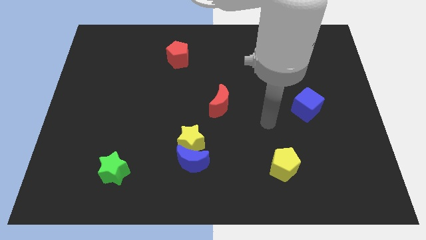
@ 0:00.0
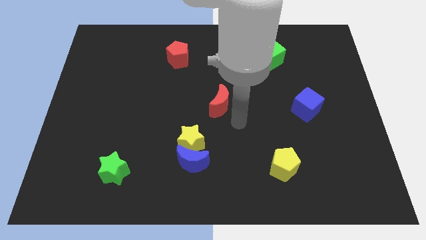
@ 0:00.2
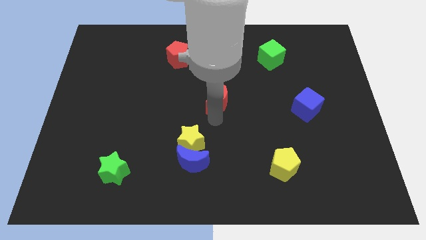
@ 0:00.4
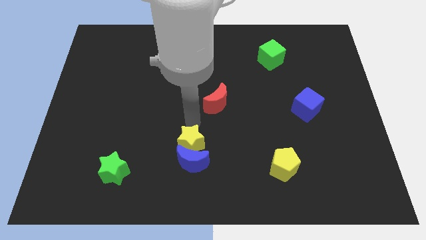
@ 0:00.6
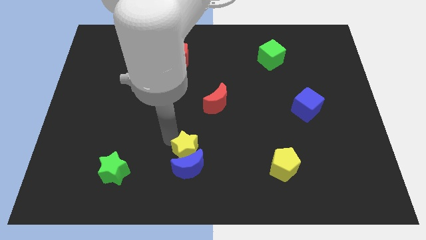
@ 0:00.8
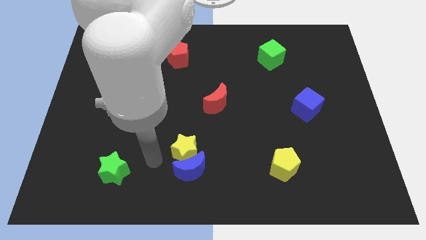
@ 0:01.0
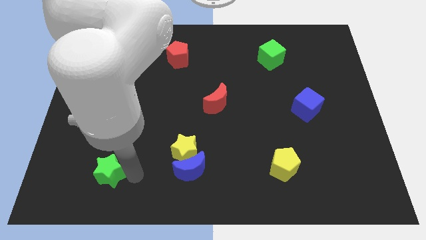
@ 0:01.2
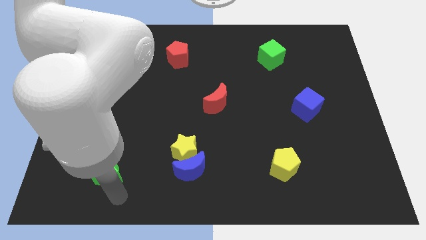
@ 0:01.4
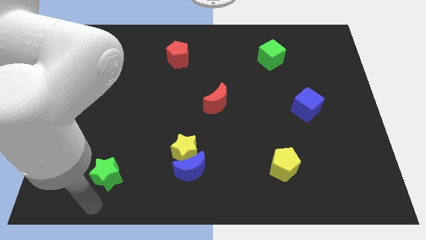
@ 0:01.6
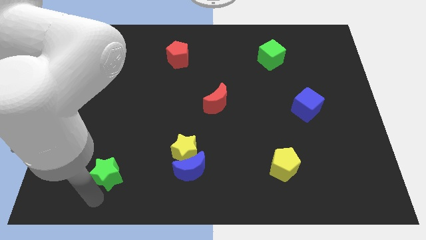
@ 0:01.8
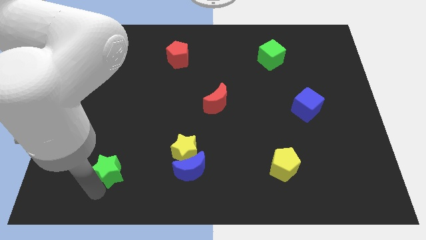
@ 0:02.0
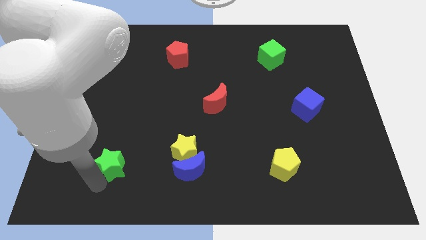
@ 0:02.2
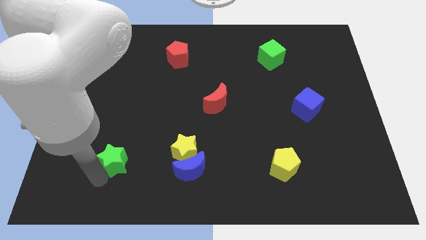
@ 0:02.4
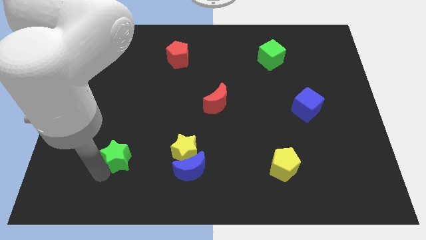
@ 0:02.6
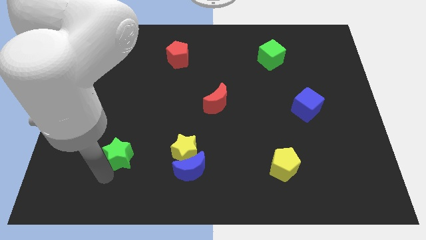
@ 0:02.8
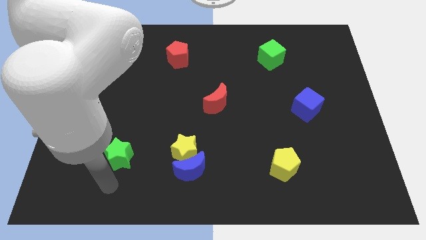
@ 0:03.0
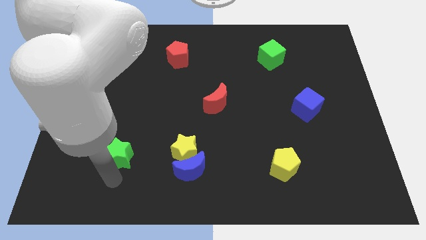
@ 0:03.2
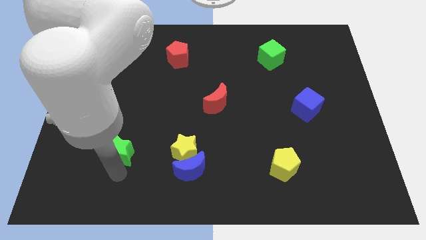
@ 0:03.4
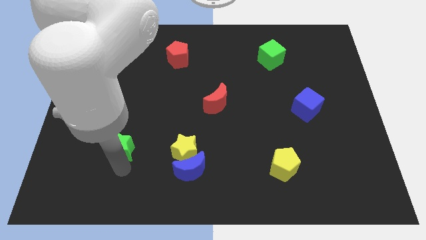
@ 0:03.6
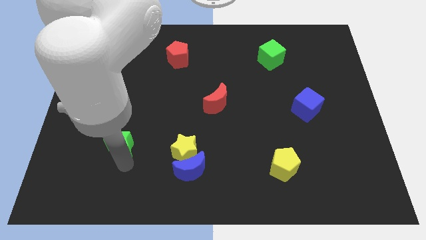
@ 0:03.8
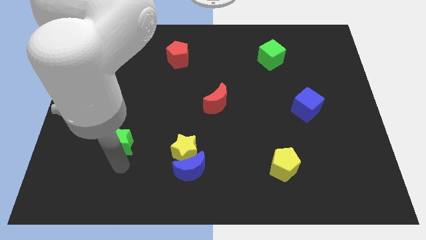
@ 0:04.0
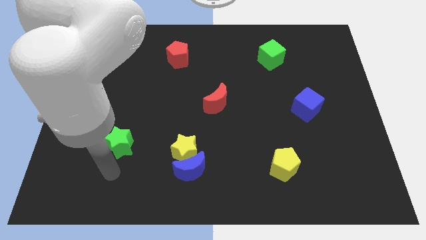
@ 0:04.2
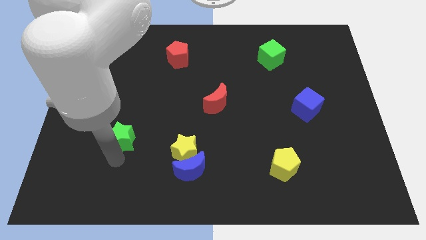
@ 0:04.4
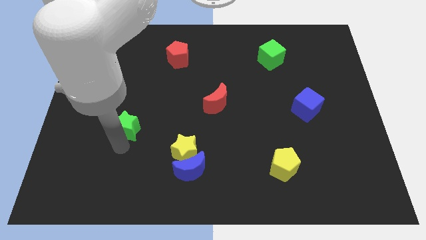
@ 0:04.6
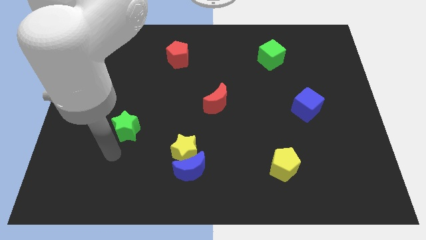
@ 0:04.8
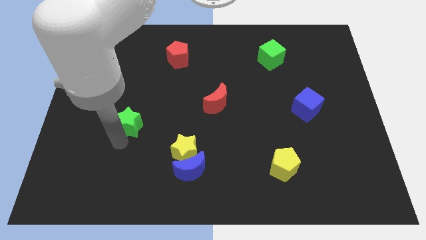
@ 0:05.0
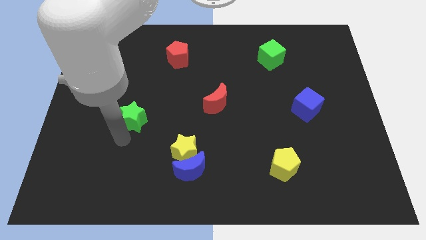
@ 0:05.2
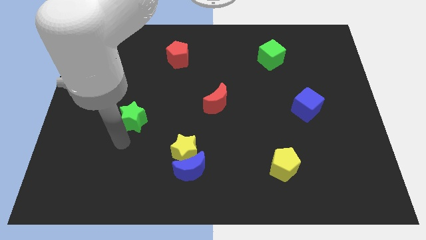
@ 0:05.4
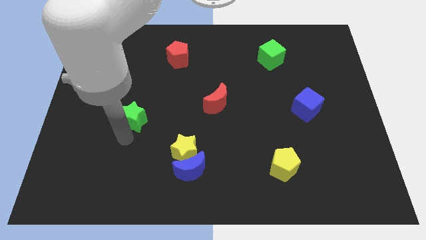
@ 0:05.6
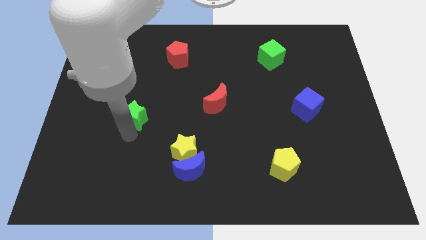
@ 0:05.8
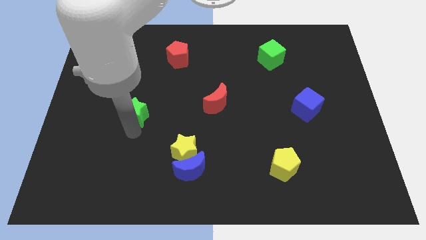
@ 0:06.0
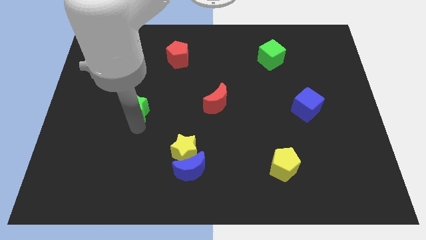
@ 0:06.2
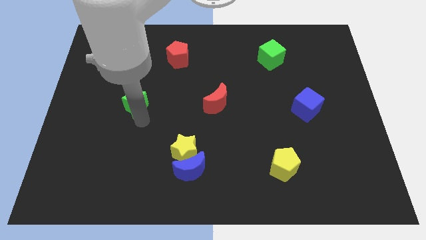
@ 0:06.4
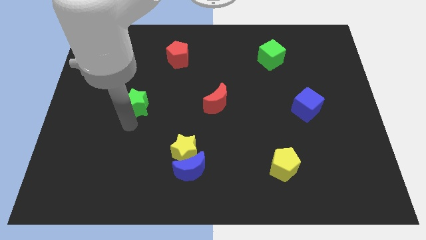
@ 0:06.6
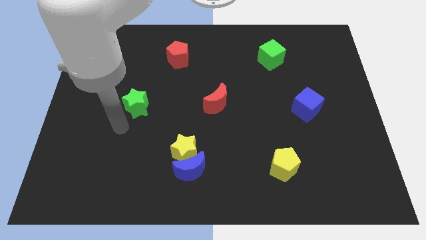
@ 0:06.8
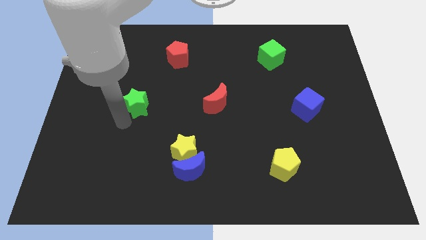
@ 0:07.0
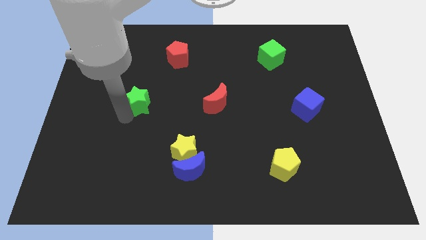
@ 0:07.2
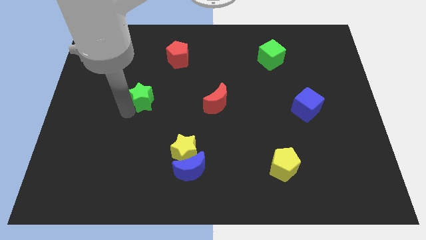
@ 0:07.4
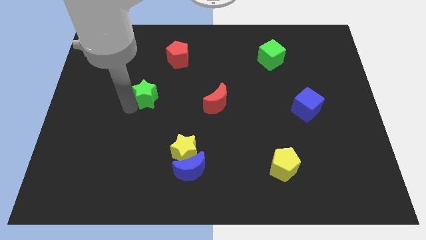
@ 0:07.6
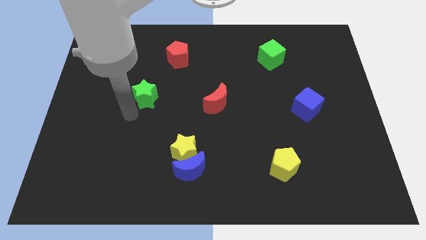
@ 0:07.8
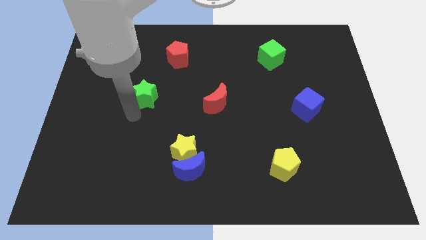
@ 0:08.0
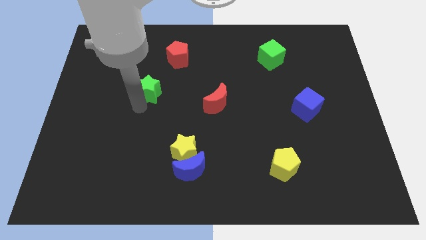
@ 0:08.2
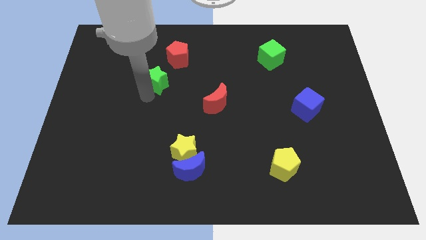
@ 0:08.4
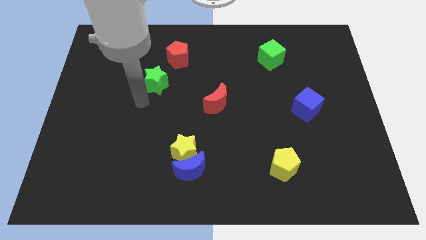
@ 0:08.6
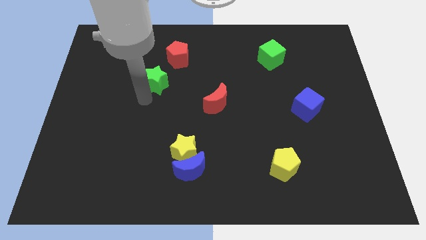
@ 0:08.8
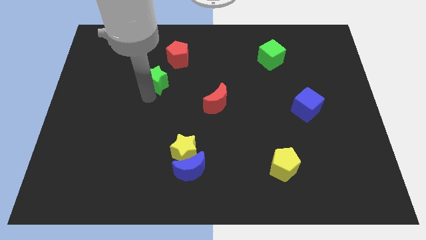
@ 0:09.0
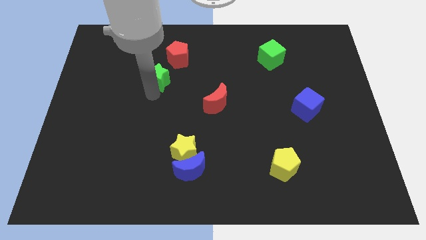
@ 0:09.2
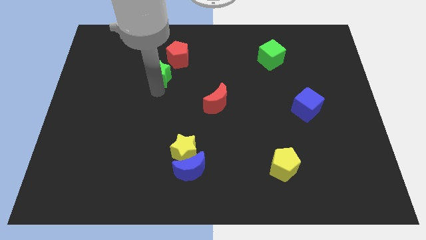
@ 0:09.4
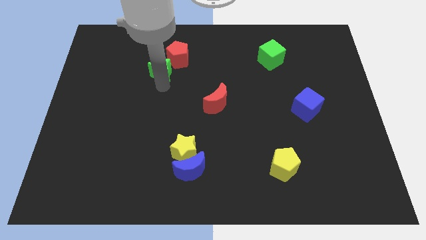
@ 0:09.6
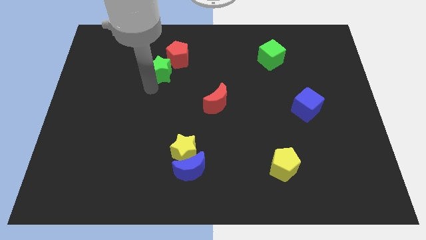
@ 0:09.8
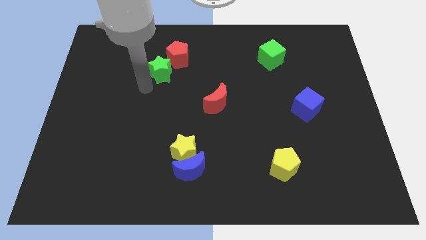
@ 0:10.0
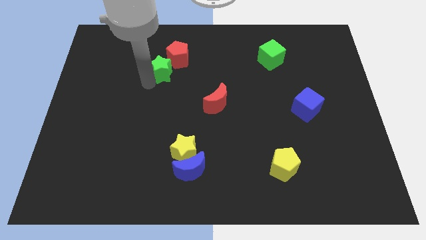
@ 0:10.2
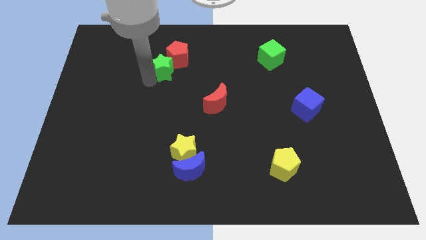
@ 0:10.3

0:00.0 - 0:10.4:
slide the green star close to the red pentagon

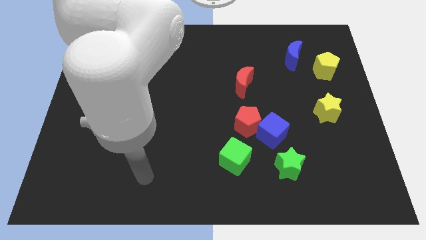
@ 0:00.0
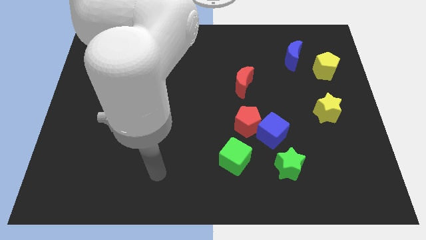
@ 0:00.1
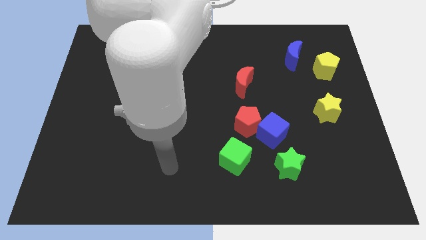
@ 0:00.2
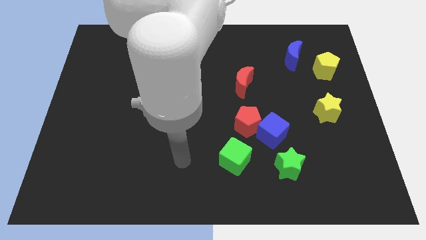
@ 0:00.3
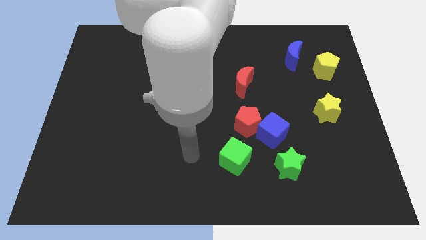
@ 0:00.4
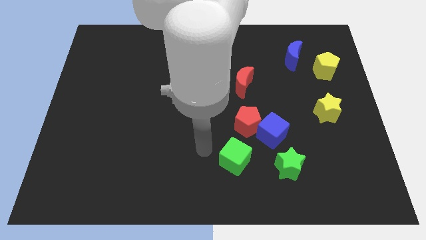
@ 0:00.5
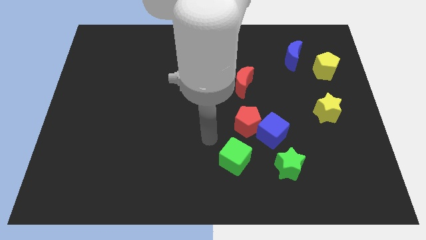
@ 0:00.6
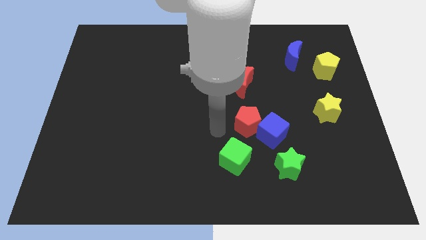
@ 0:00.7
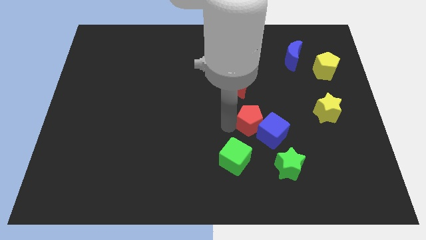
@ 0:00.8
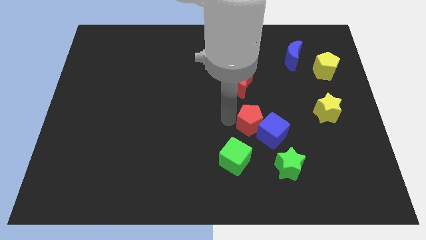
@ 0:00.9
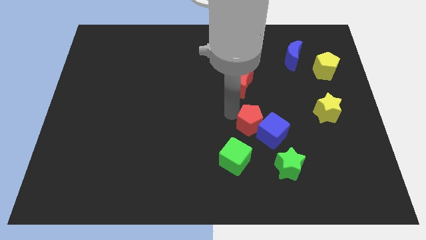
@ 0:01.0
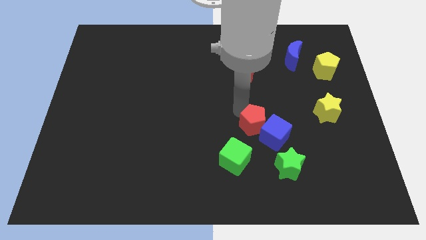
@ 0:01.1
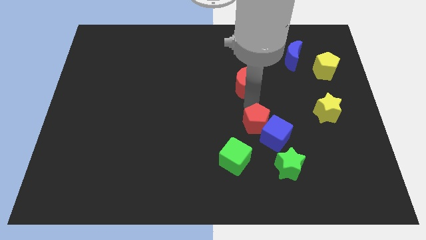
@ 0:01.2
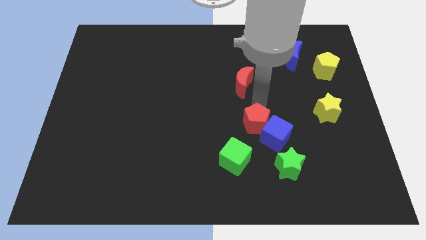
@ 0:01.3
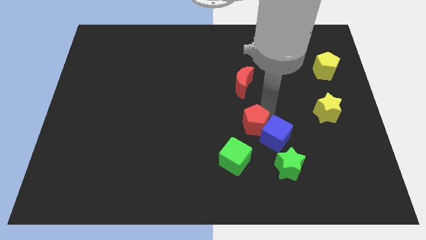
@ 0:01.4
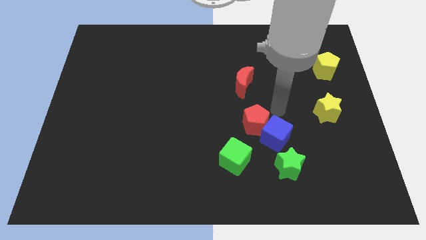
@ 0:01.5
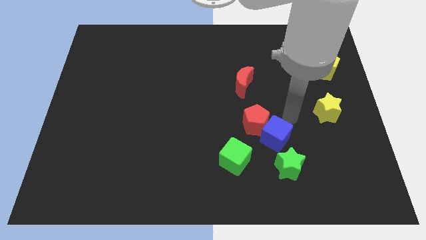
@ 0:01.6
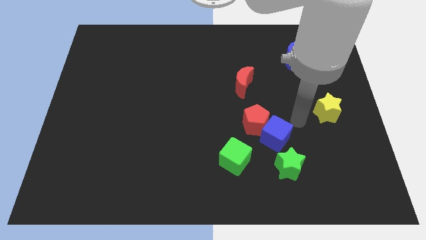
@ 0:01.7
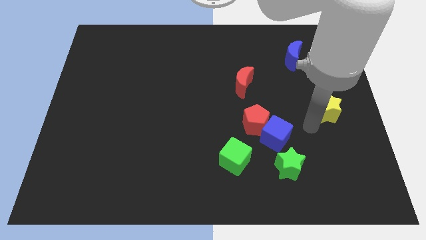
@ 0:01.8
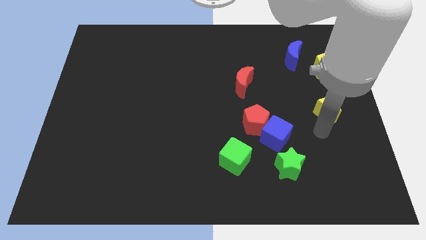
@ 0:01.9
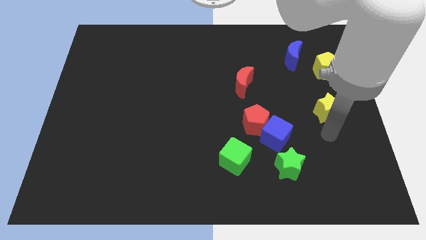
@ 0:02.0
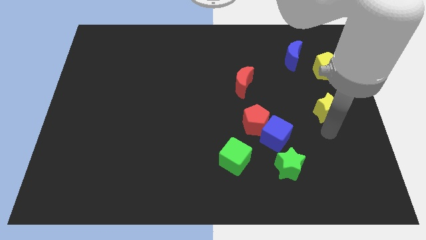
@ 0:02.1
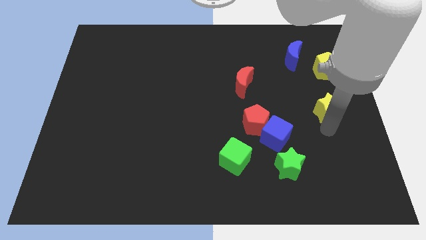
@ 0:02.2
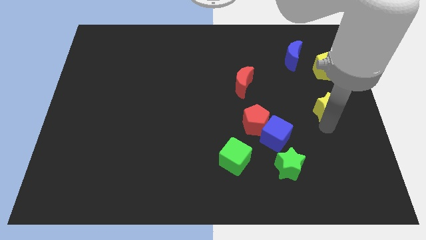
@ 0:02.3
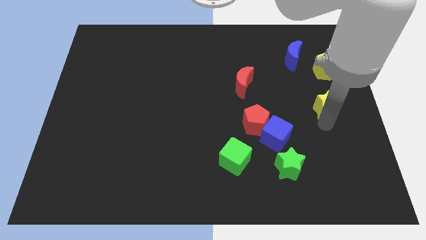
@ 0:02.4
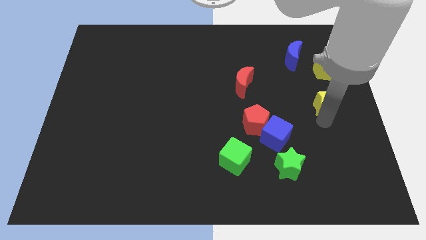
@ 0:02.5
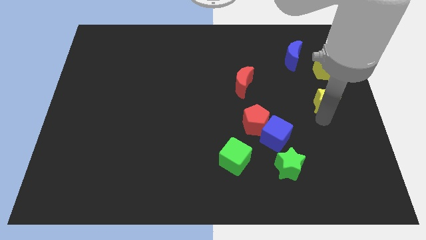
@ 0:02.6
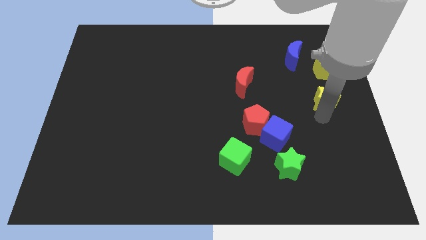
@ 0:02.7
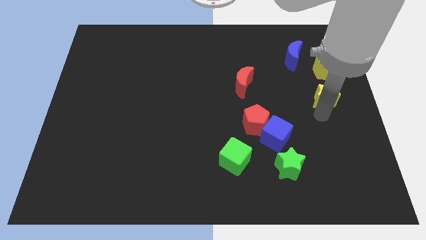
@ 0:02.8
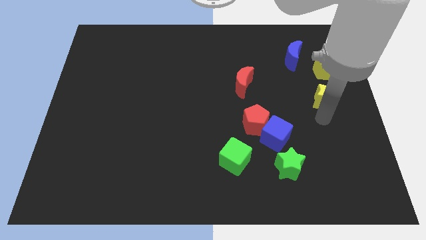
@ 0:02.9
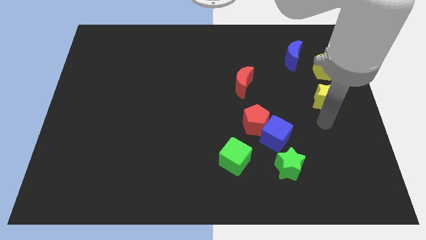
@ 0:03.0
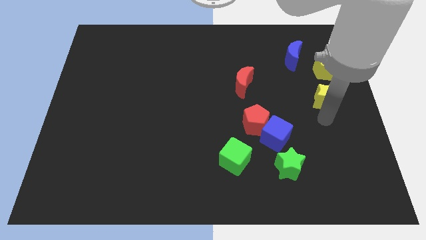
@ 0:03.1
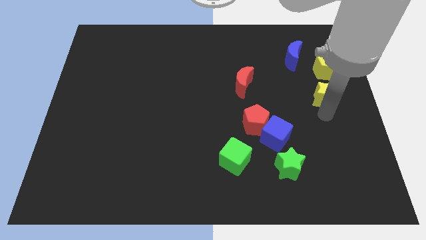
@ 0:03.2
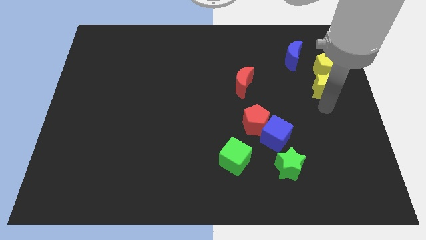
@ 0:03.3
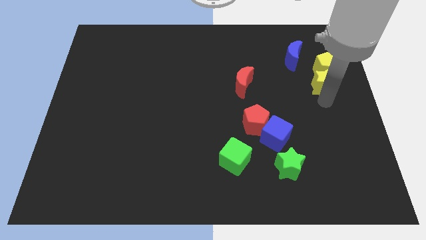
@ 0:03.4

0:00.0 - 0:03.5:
put the yellow star close to the yellow pentagon
